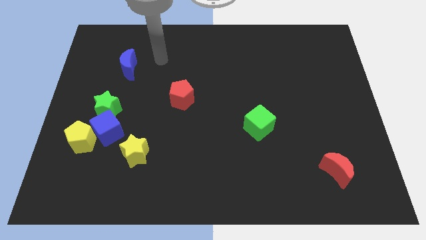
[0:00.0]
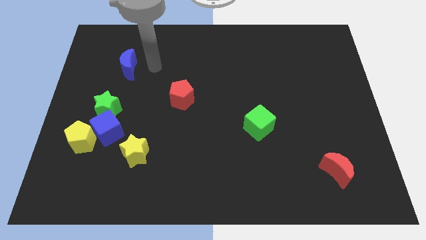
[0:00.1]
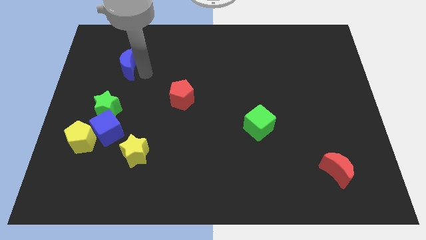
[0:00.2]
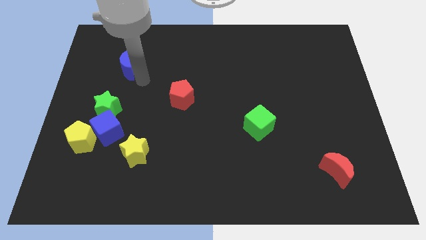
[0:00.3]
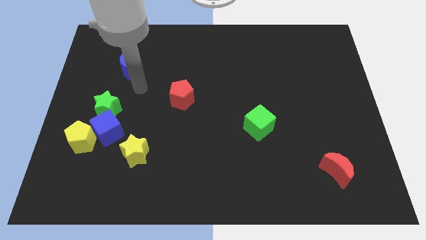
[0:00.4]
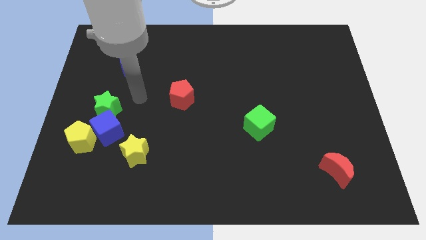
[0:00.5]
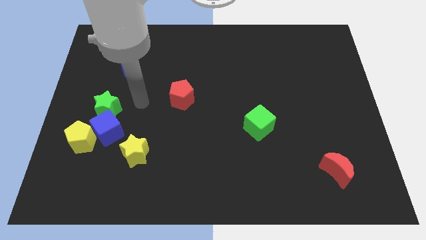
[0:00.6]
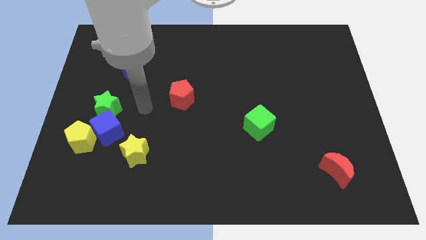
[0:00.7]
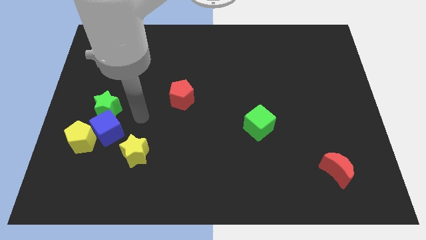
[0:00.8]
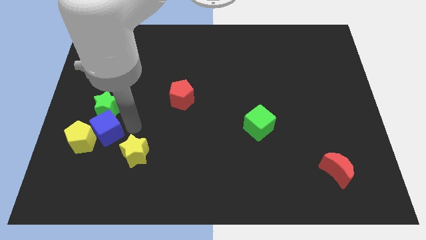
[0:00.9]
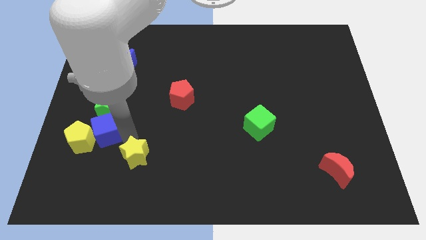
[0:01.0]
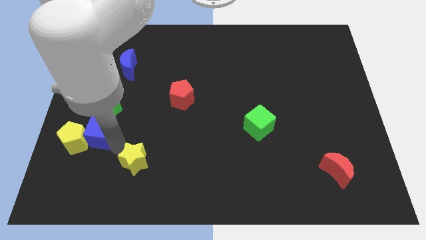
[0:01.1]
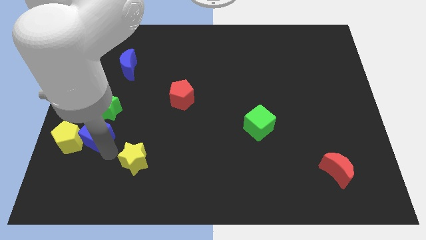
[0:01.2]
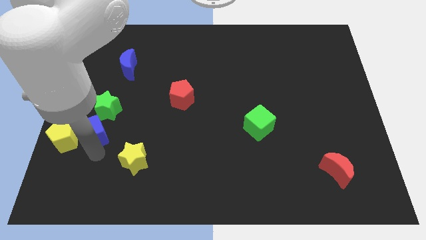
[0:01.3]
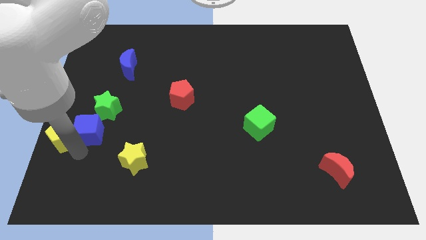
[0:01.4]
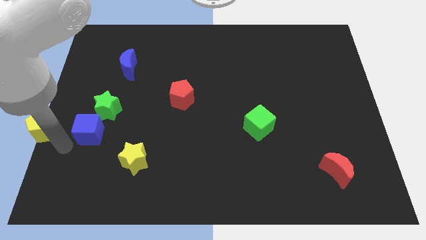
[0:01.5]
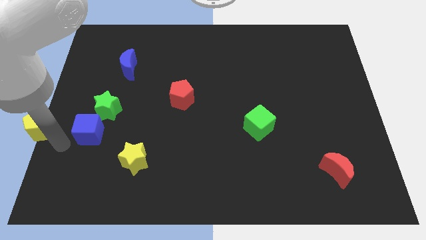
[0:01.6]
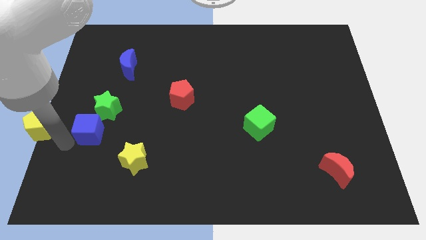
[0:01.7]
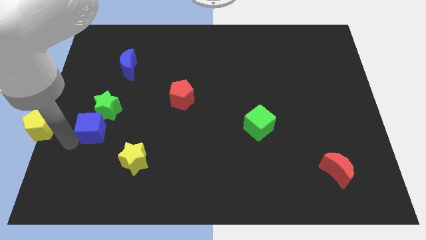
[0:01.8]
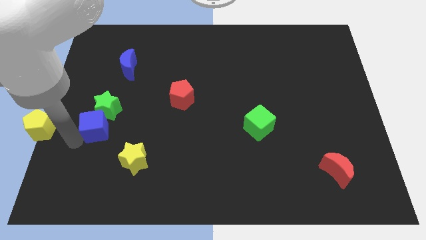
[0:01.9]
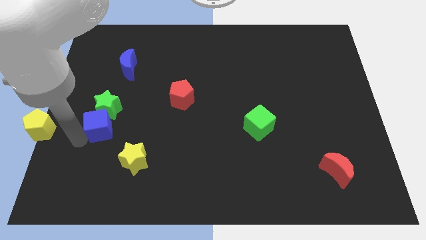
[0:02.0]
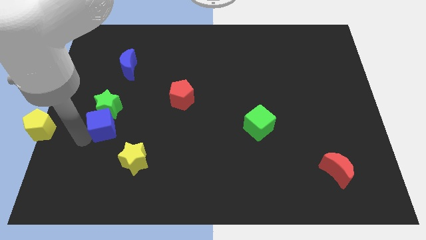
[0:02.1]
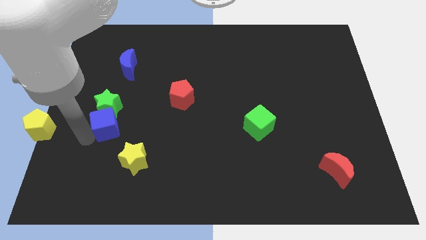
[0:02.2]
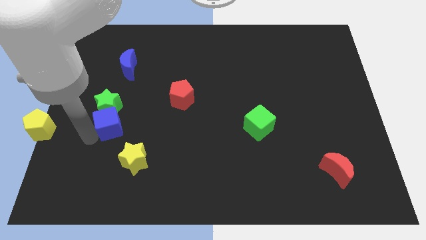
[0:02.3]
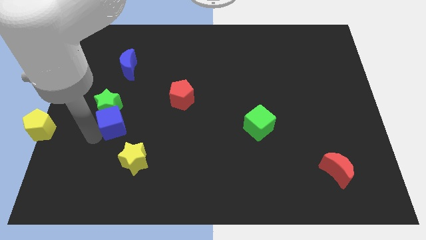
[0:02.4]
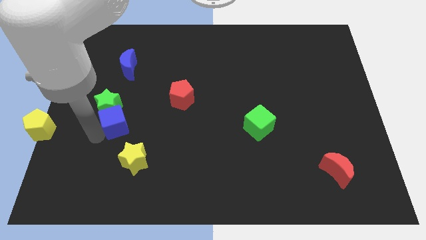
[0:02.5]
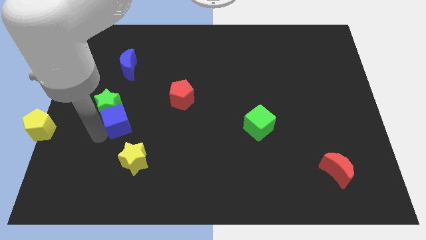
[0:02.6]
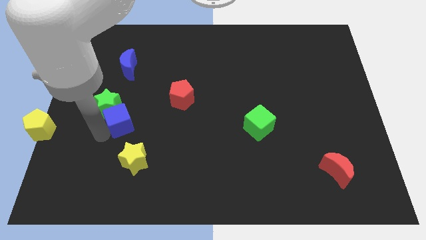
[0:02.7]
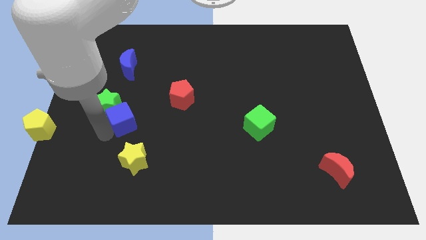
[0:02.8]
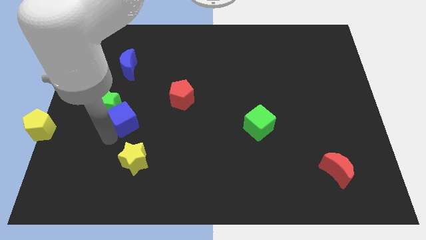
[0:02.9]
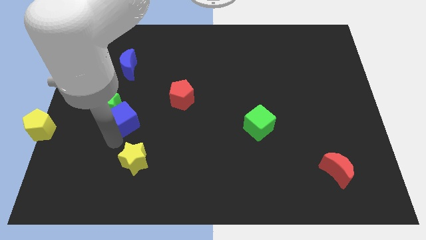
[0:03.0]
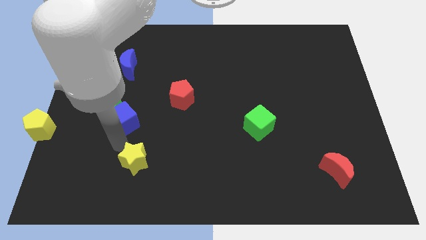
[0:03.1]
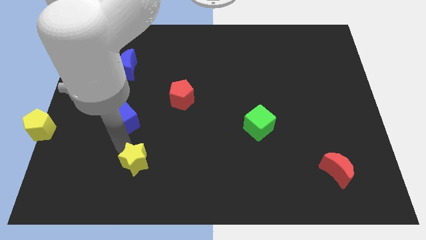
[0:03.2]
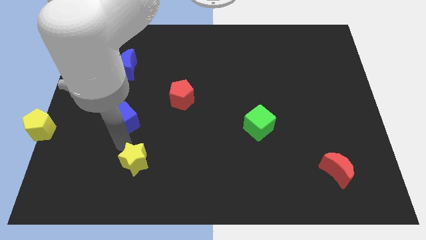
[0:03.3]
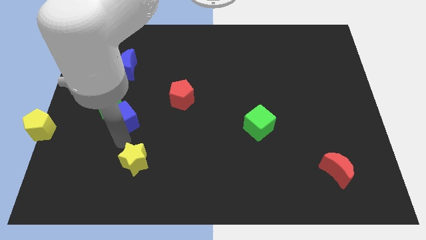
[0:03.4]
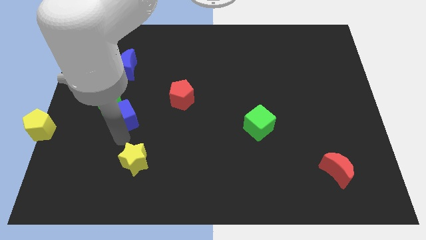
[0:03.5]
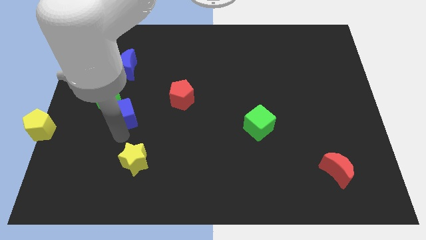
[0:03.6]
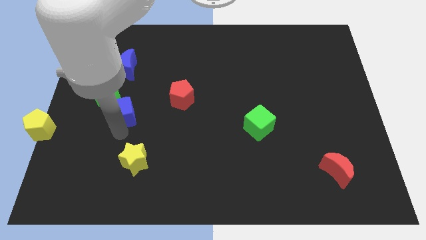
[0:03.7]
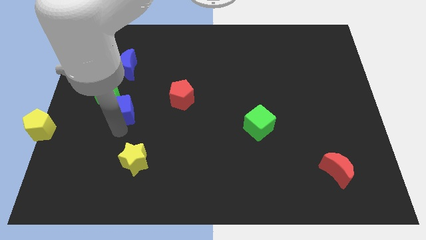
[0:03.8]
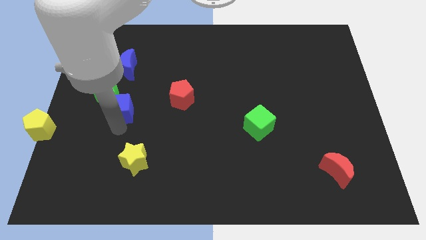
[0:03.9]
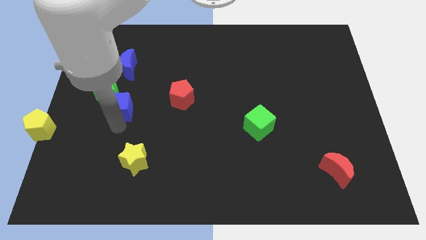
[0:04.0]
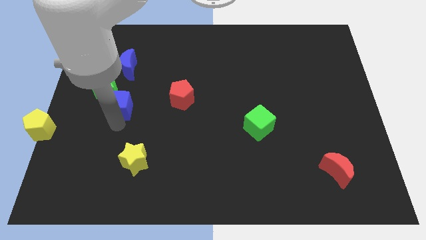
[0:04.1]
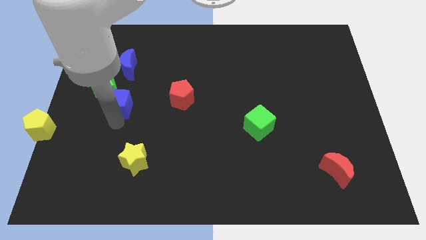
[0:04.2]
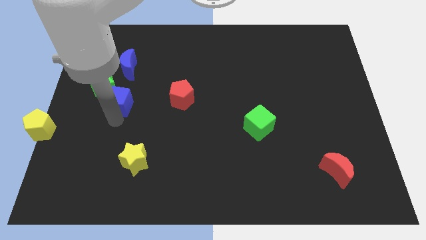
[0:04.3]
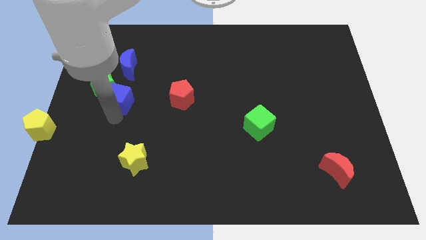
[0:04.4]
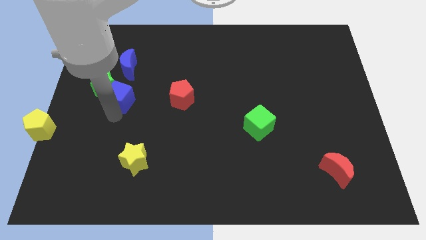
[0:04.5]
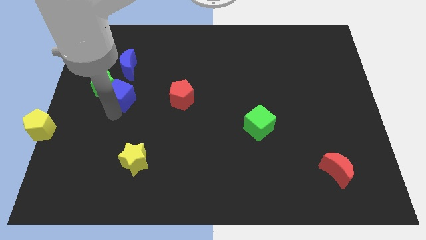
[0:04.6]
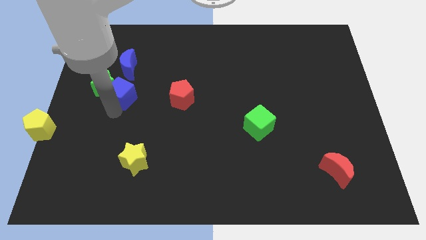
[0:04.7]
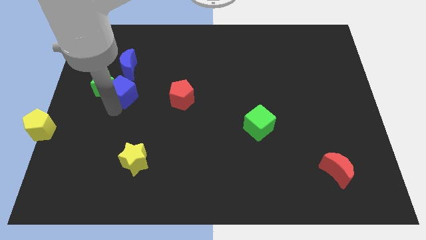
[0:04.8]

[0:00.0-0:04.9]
move the blue cube away from the group

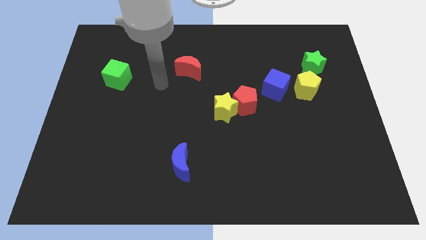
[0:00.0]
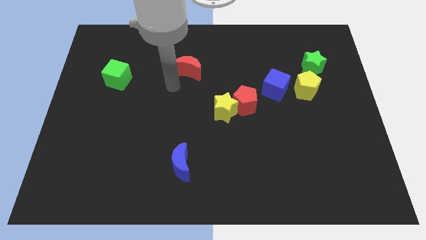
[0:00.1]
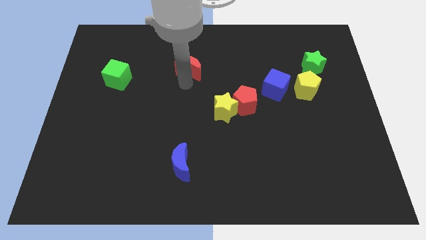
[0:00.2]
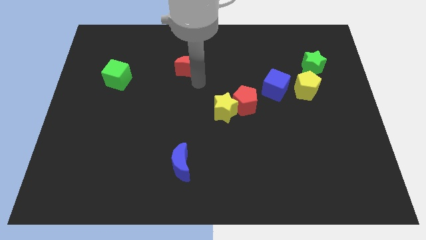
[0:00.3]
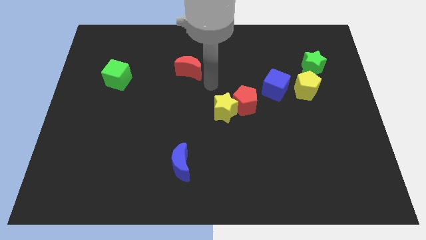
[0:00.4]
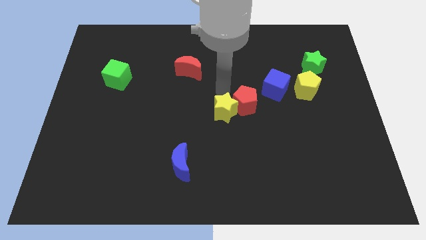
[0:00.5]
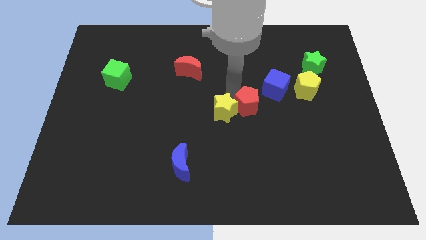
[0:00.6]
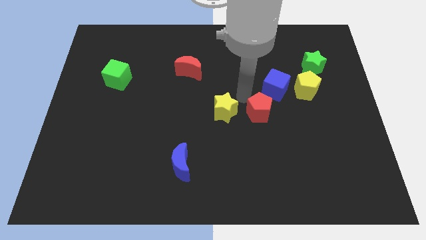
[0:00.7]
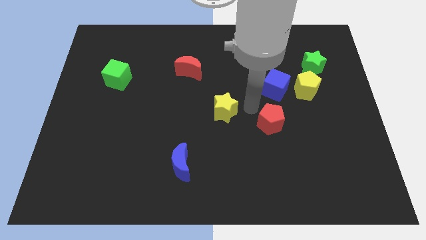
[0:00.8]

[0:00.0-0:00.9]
separate the yellow star from the red pentagon

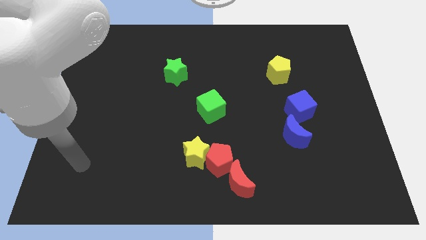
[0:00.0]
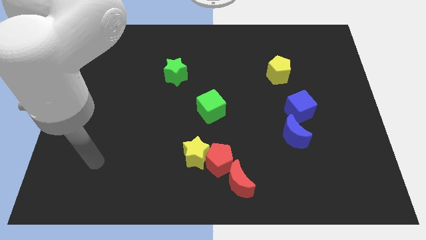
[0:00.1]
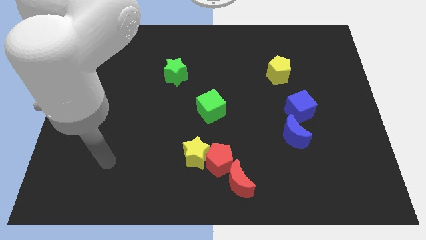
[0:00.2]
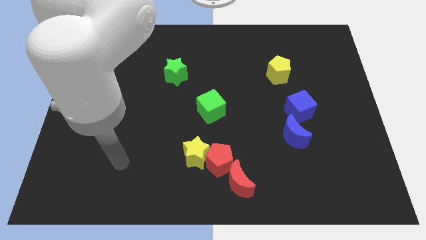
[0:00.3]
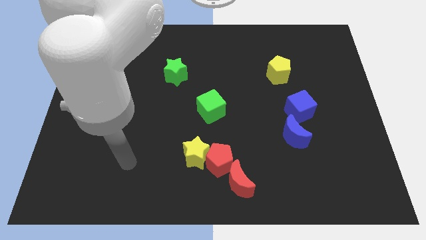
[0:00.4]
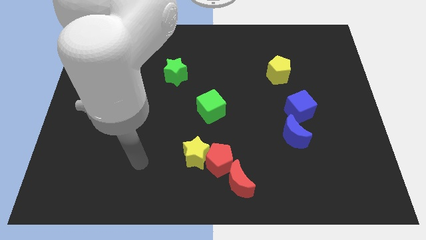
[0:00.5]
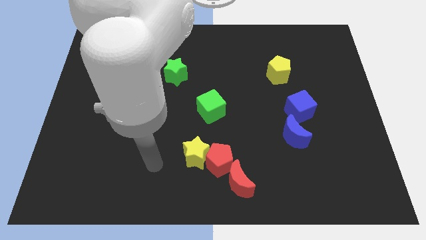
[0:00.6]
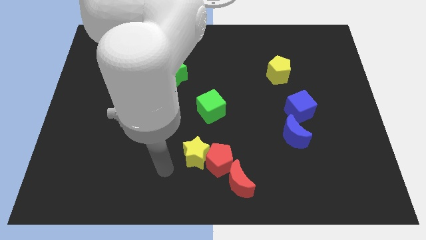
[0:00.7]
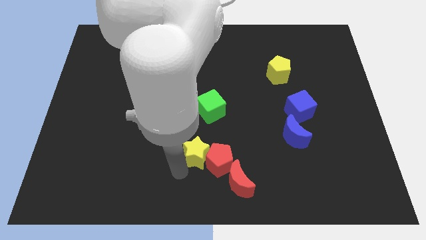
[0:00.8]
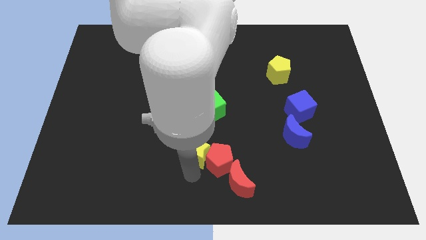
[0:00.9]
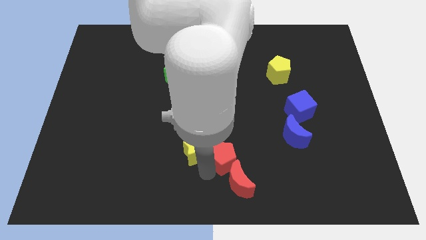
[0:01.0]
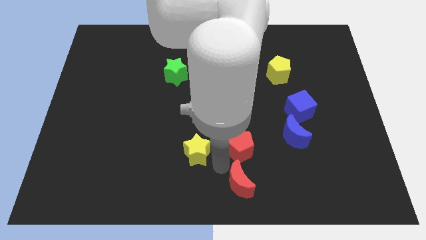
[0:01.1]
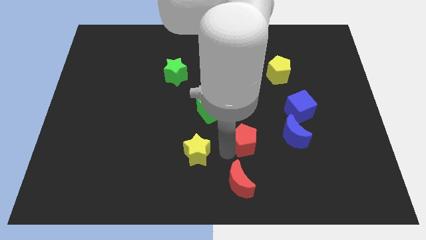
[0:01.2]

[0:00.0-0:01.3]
move the yellow star away from the red pentagon

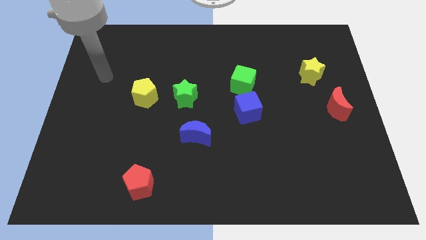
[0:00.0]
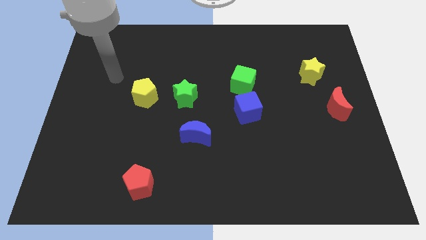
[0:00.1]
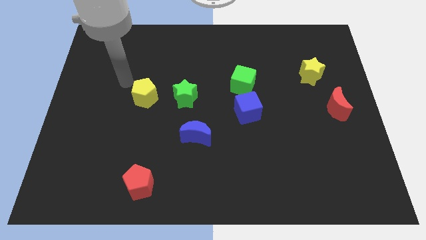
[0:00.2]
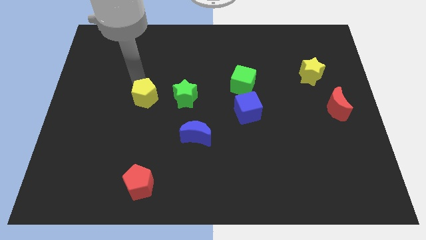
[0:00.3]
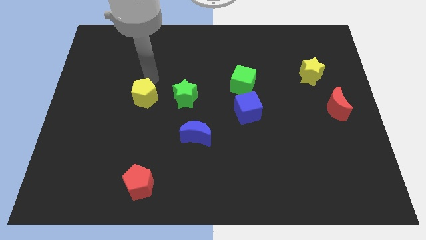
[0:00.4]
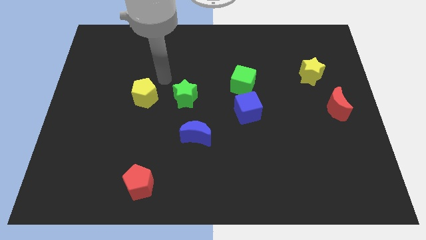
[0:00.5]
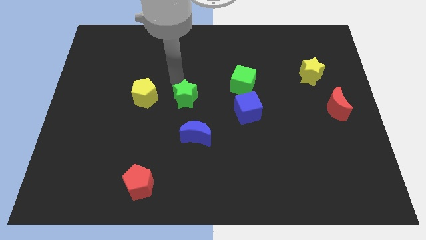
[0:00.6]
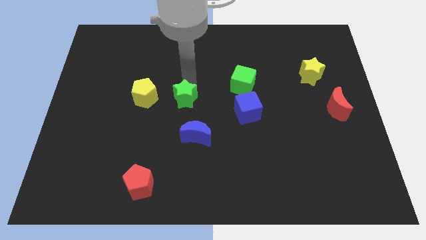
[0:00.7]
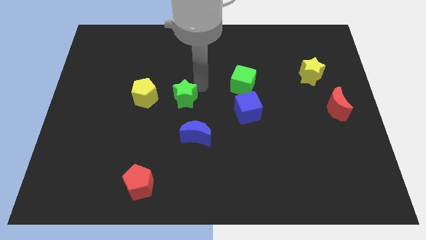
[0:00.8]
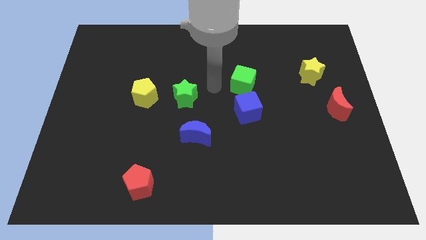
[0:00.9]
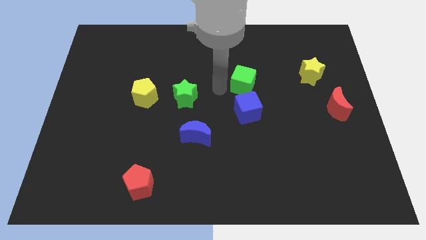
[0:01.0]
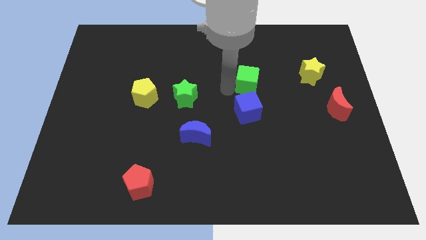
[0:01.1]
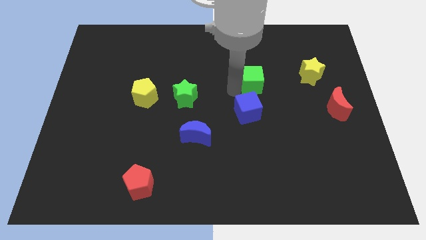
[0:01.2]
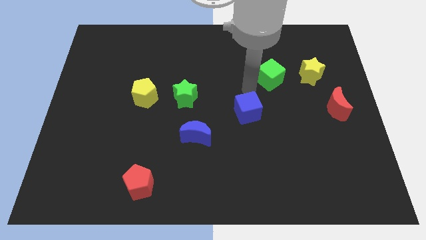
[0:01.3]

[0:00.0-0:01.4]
move the blue cube away from the green cube

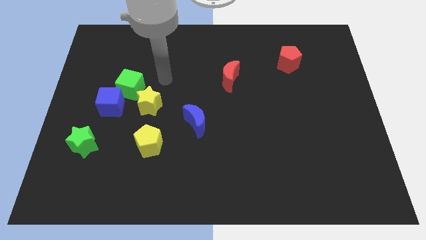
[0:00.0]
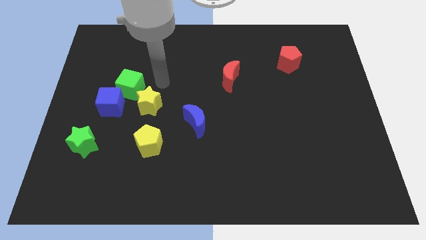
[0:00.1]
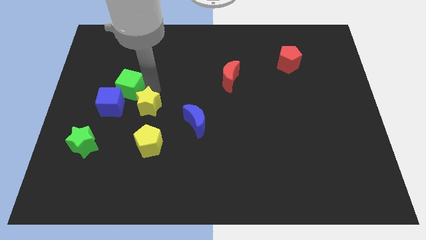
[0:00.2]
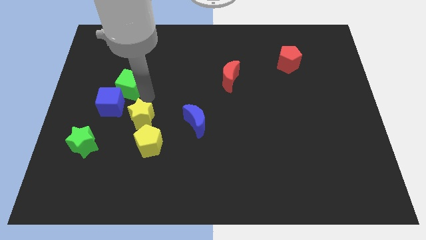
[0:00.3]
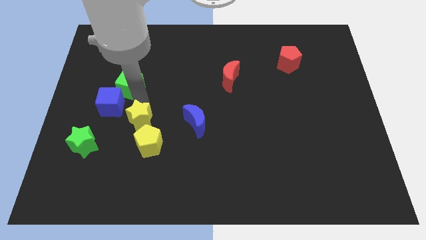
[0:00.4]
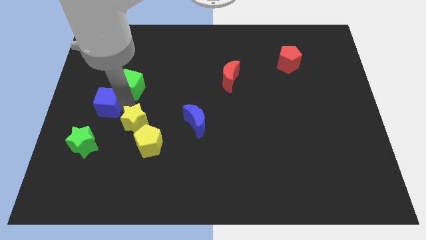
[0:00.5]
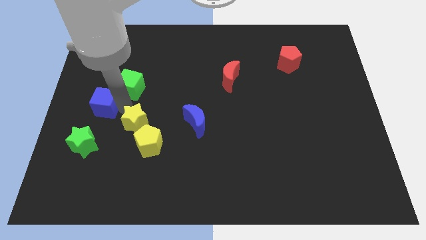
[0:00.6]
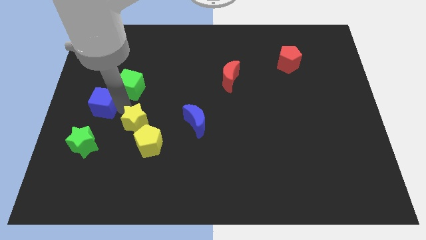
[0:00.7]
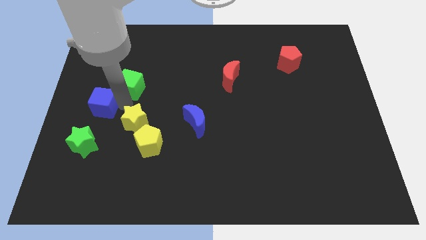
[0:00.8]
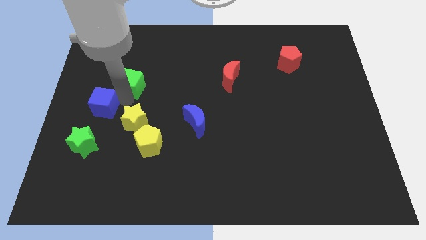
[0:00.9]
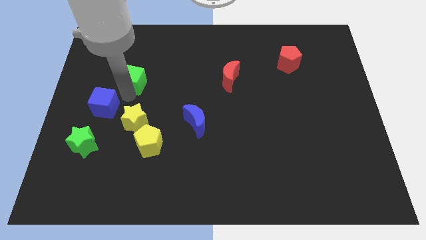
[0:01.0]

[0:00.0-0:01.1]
separate the green cube from the blue cube and yellow star
